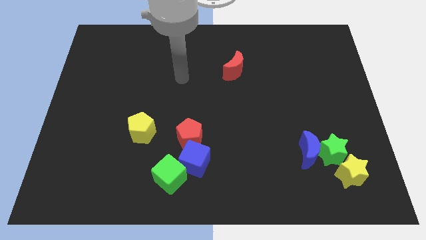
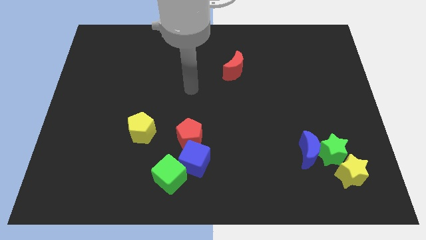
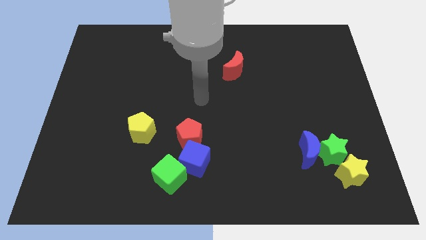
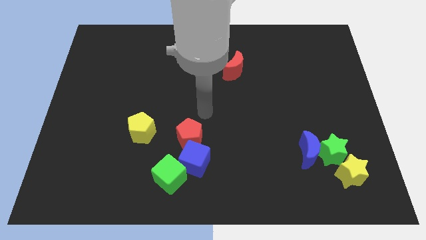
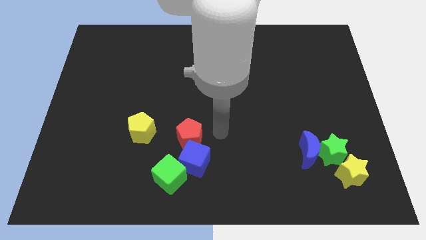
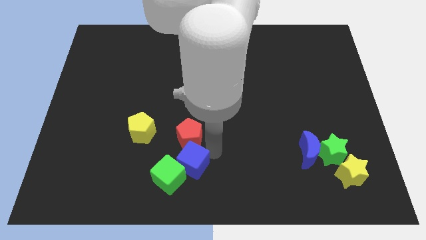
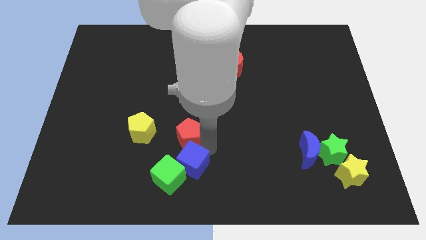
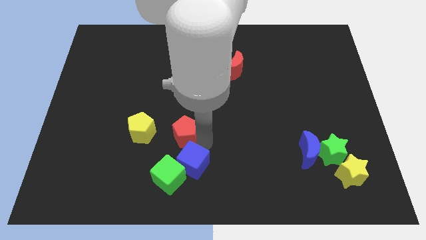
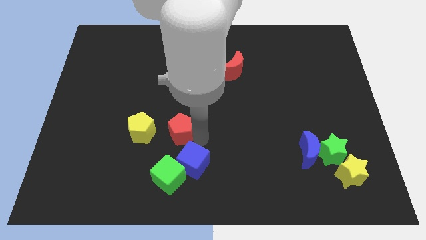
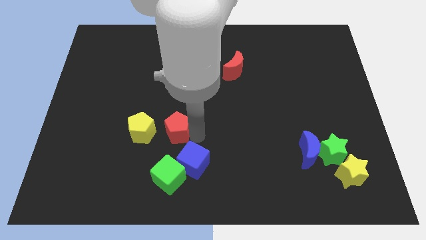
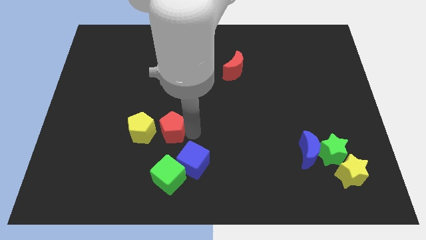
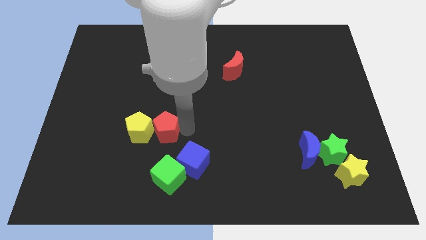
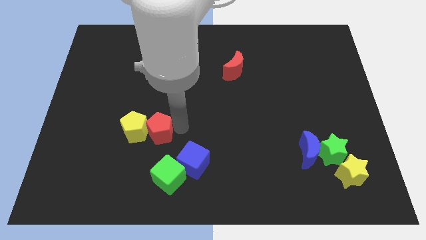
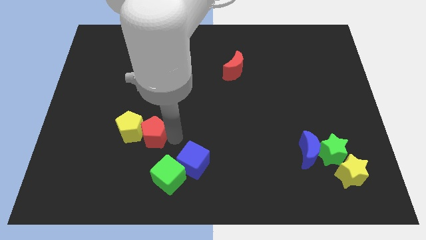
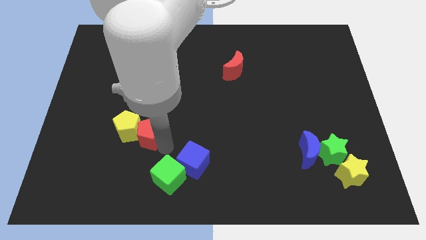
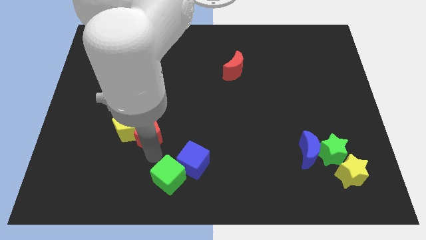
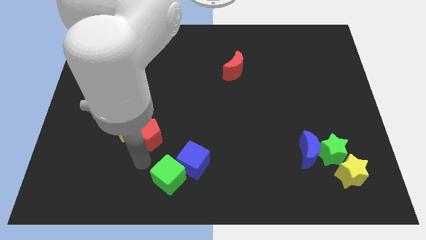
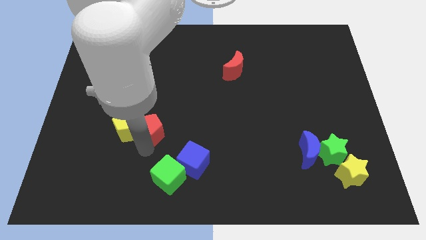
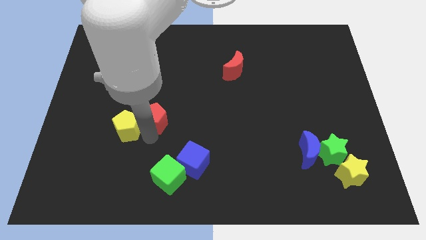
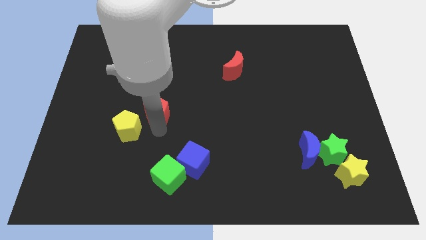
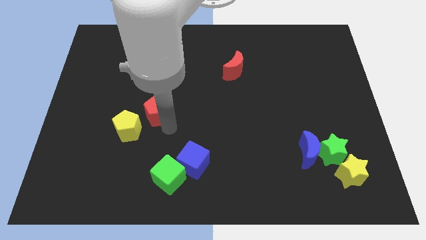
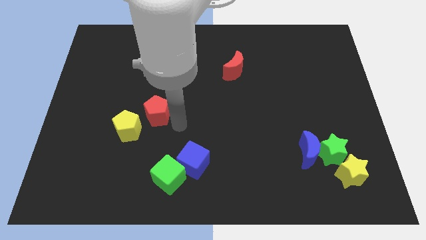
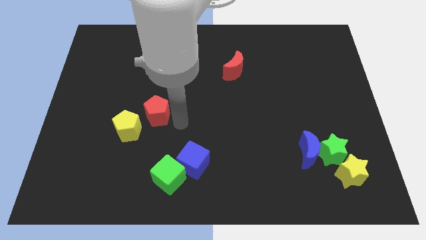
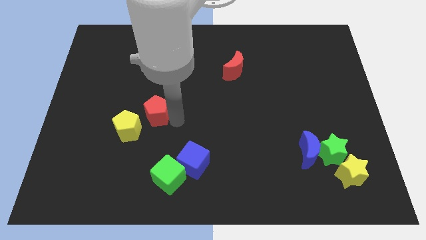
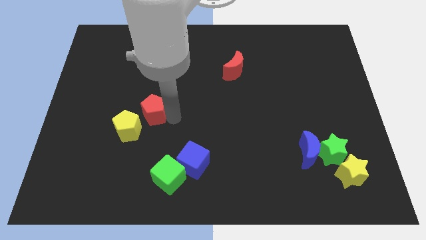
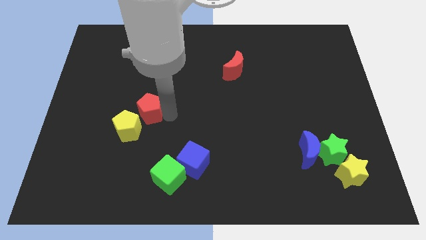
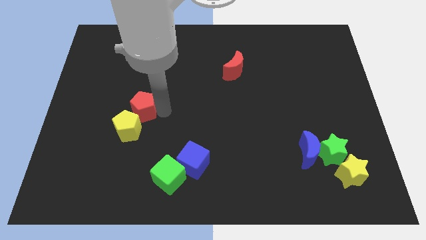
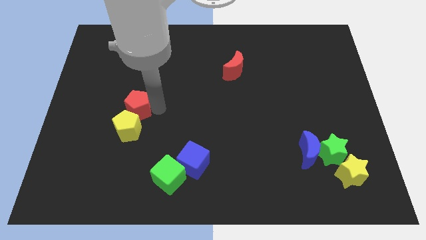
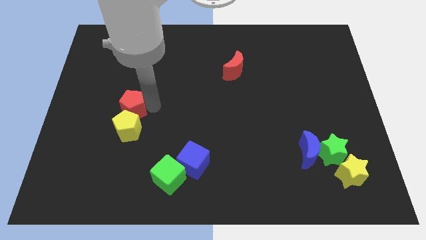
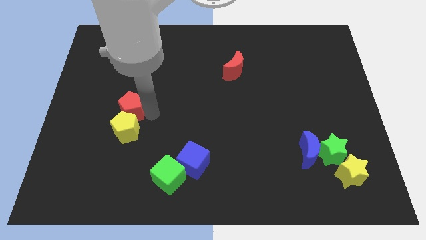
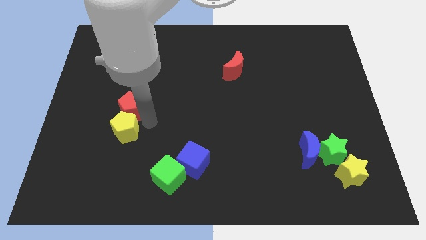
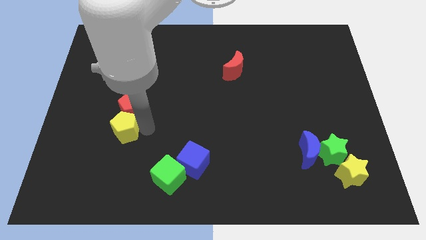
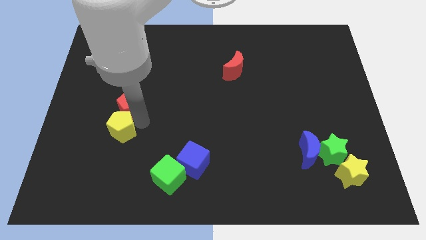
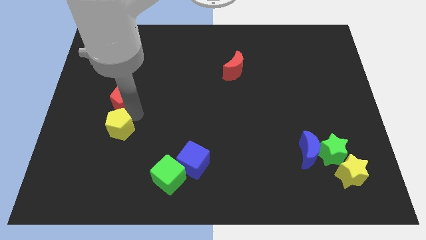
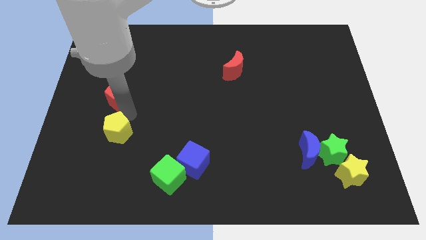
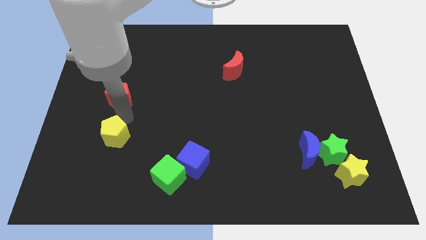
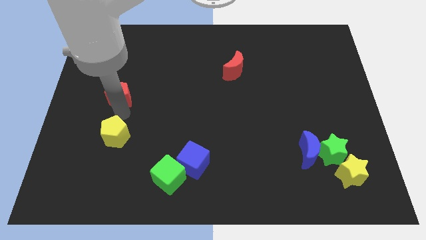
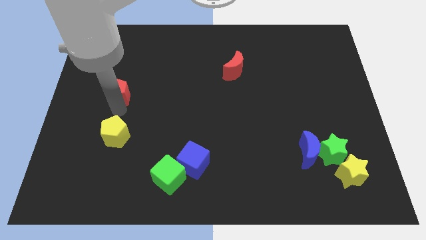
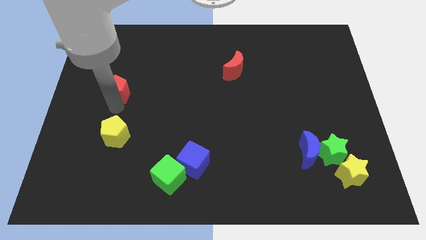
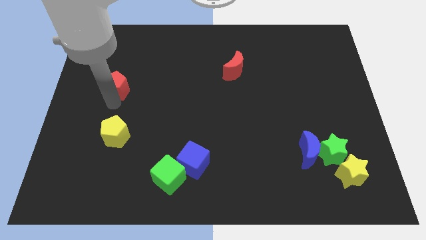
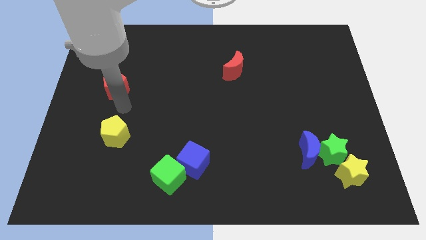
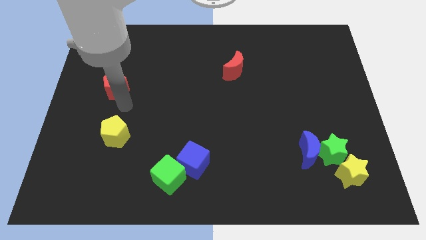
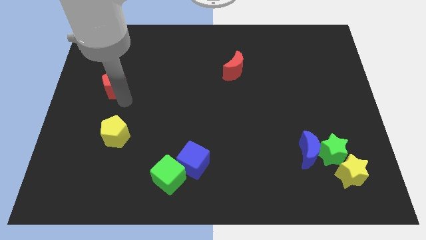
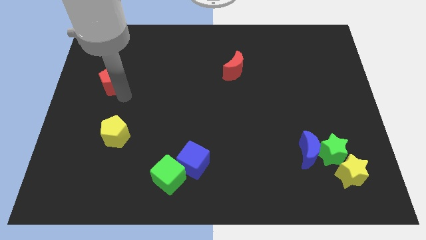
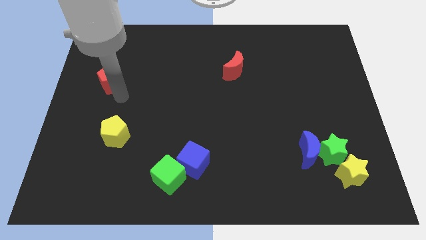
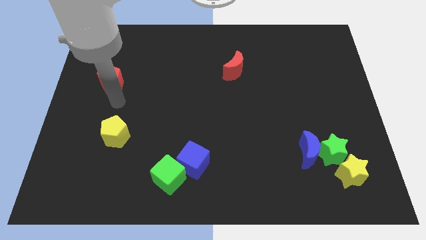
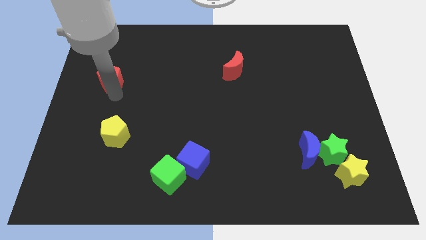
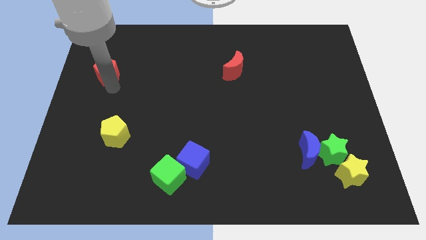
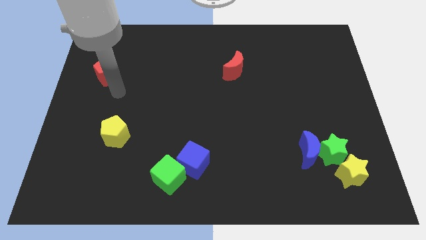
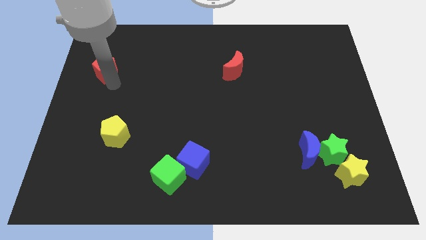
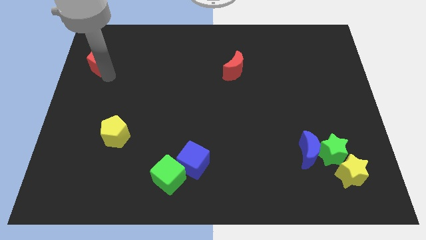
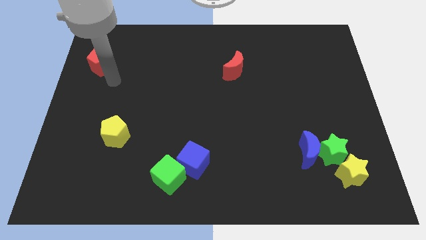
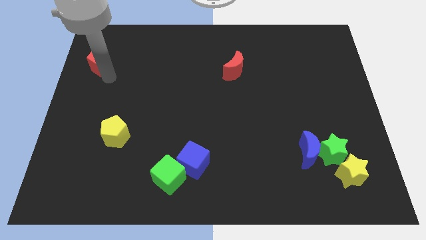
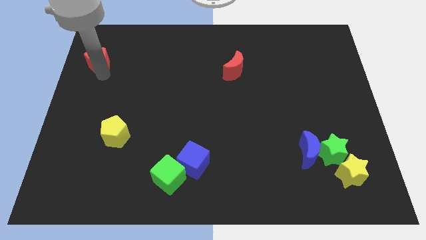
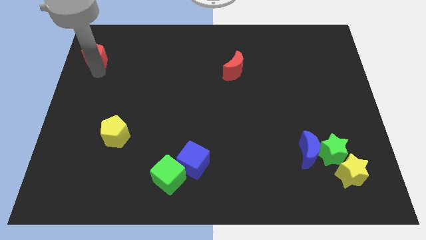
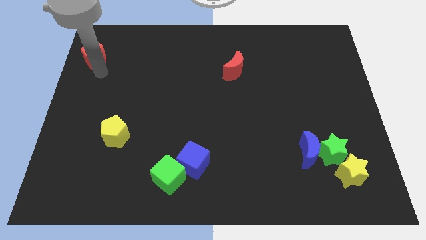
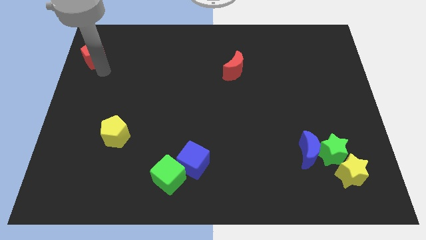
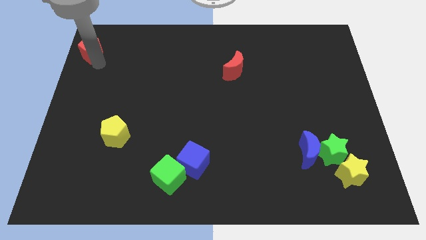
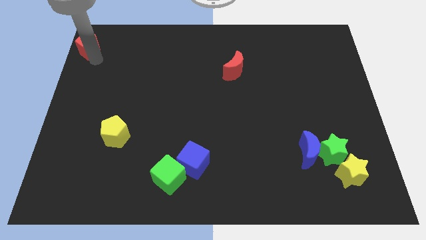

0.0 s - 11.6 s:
put the red pentagon to the upper left corner
